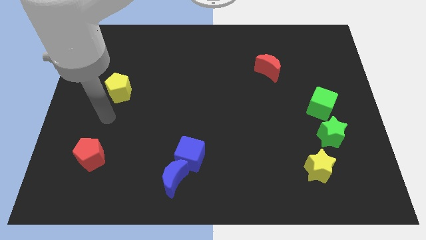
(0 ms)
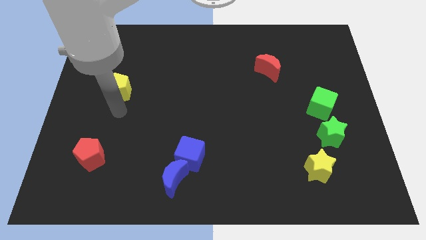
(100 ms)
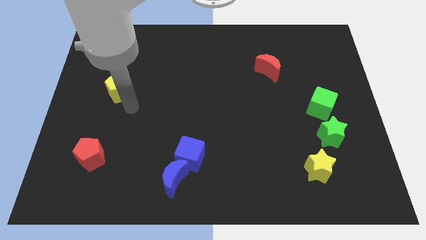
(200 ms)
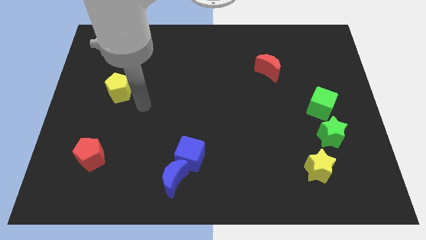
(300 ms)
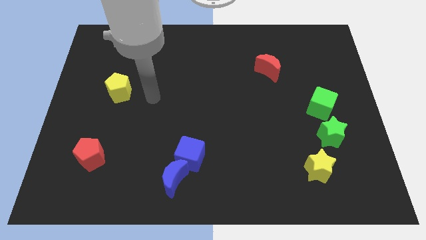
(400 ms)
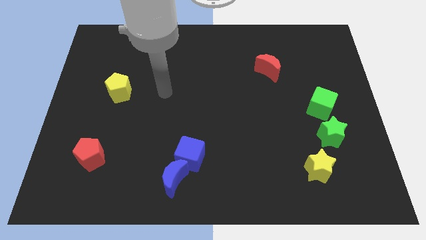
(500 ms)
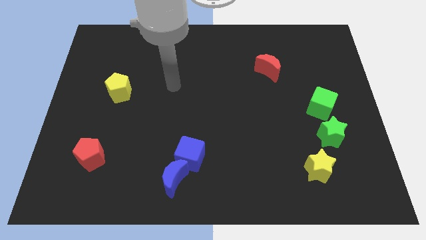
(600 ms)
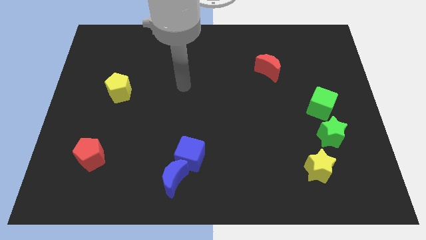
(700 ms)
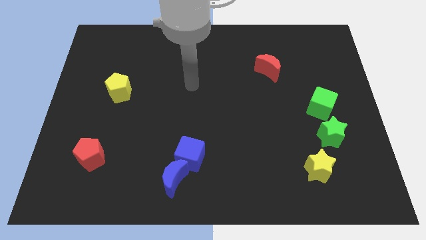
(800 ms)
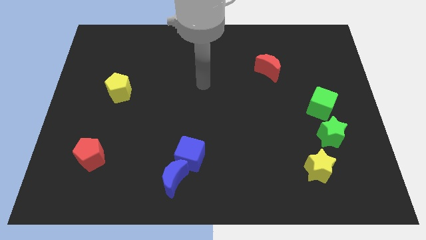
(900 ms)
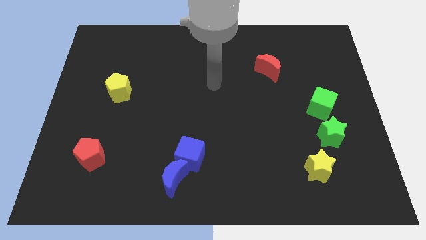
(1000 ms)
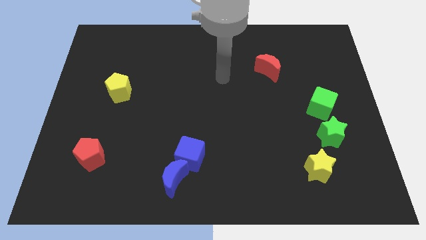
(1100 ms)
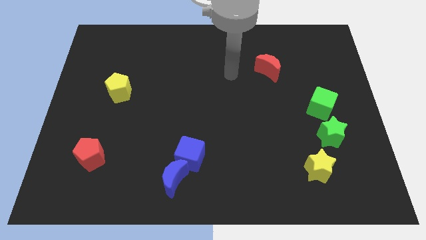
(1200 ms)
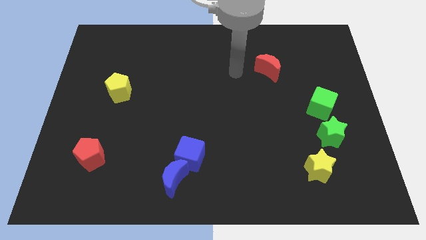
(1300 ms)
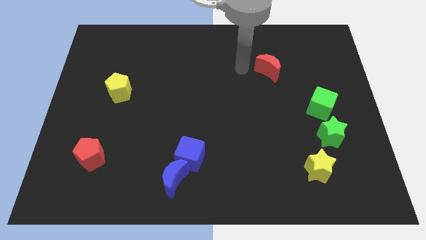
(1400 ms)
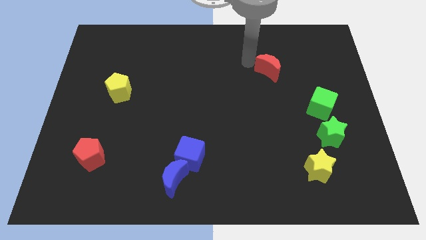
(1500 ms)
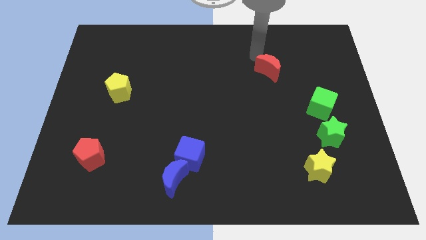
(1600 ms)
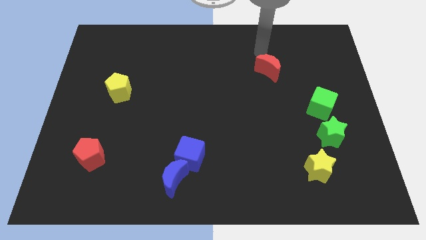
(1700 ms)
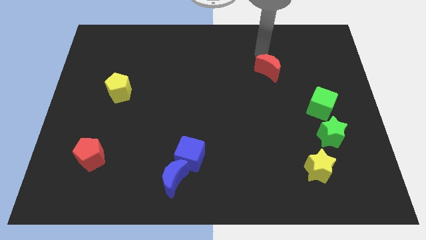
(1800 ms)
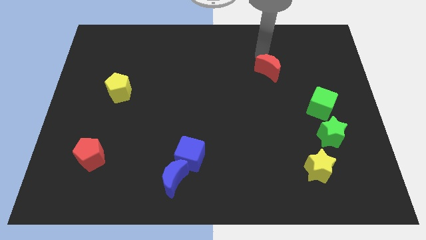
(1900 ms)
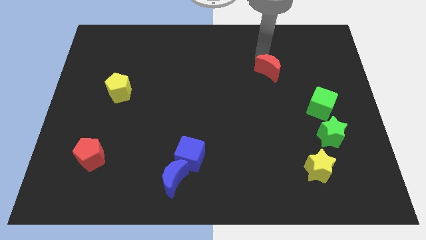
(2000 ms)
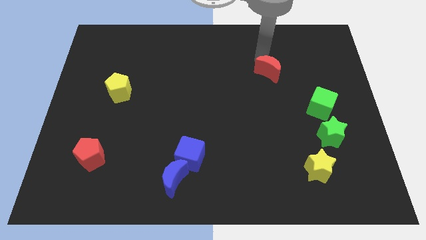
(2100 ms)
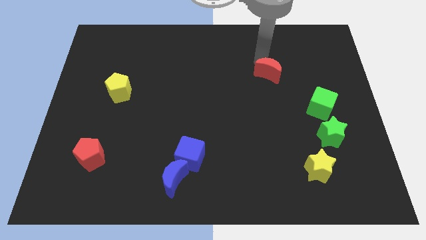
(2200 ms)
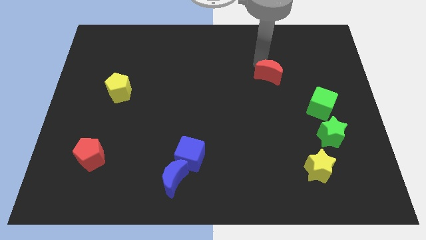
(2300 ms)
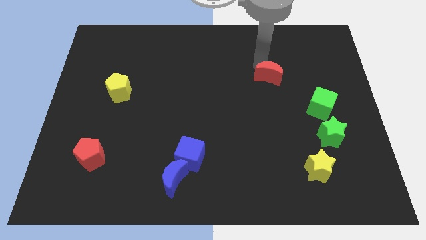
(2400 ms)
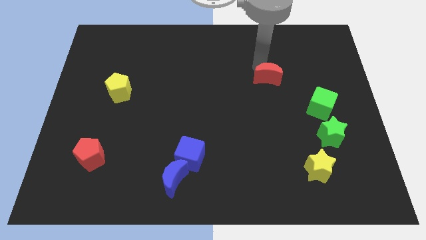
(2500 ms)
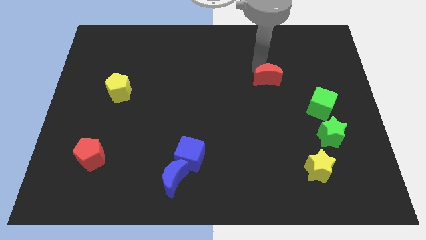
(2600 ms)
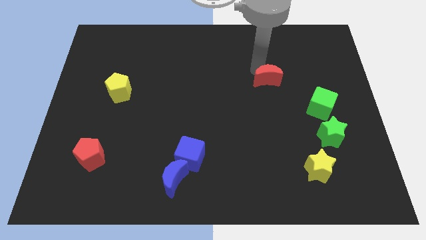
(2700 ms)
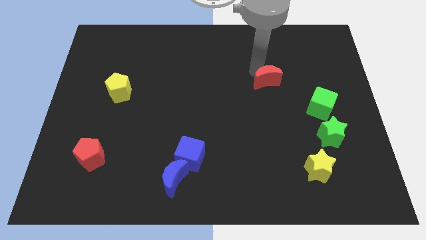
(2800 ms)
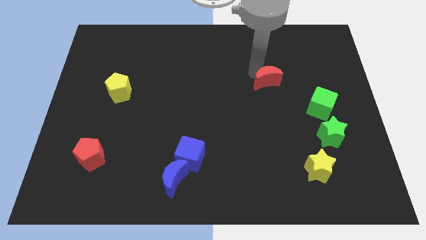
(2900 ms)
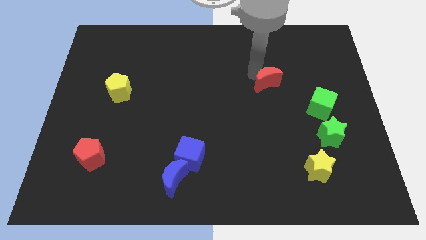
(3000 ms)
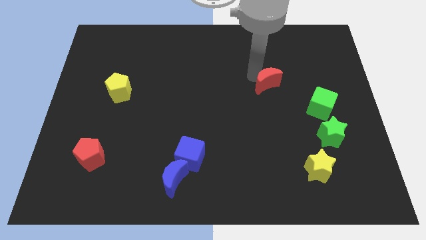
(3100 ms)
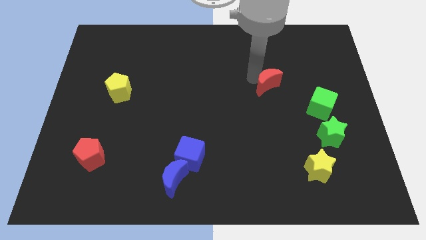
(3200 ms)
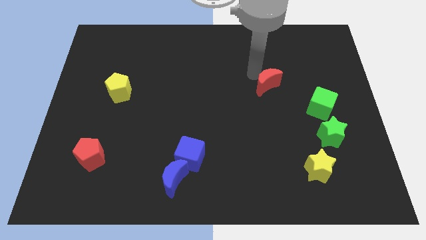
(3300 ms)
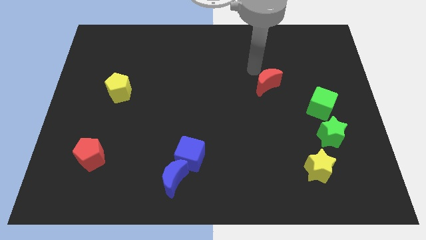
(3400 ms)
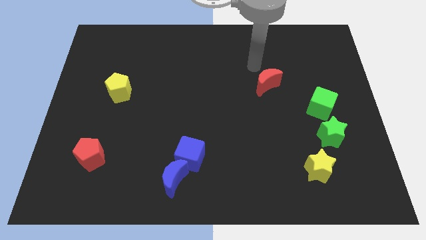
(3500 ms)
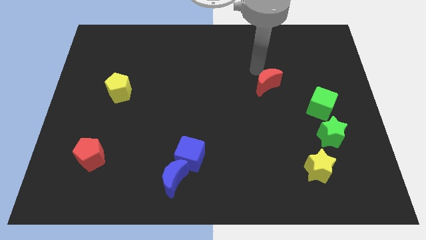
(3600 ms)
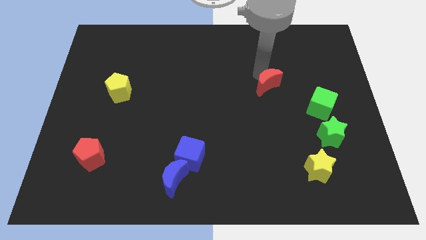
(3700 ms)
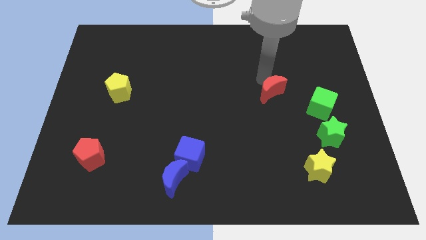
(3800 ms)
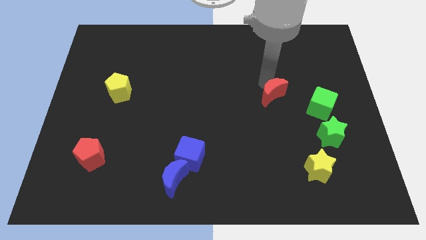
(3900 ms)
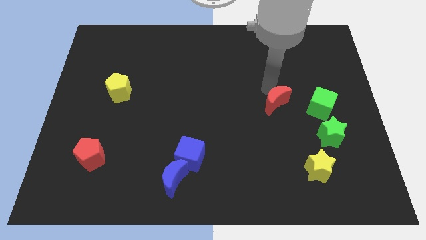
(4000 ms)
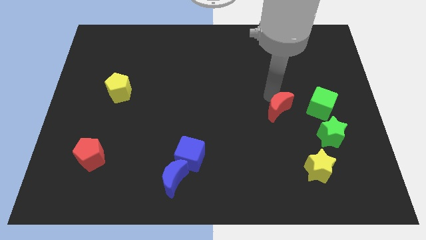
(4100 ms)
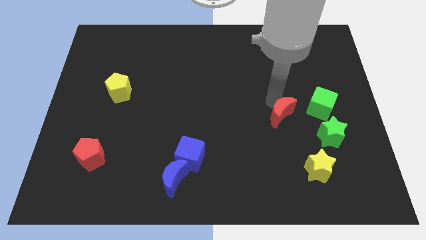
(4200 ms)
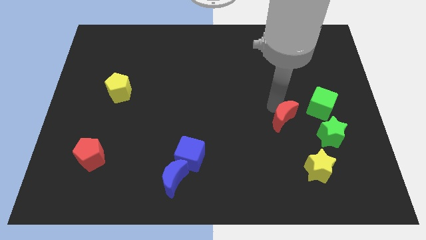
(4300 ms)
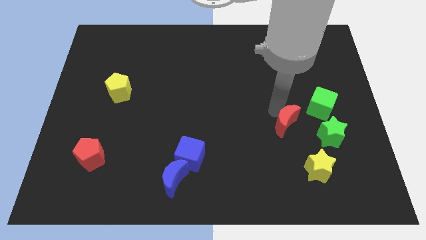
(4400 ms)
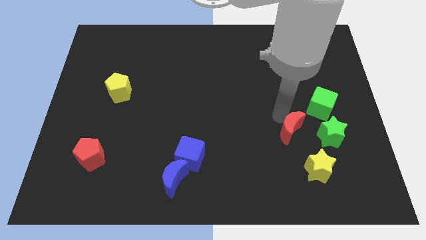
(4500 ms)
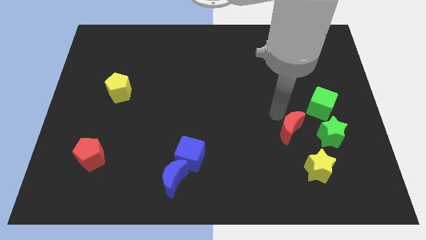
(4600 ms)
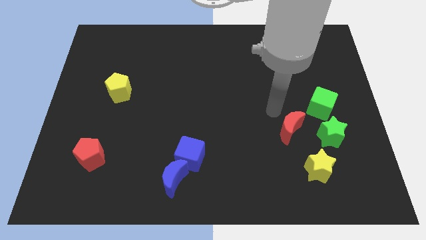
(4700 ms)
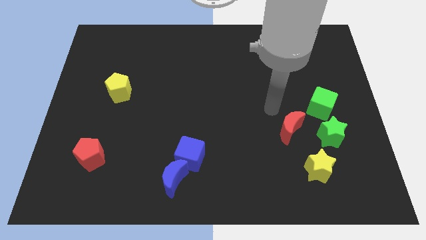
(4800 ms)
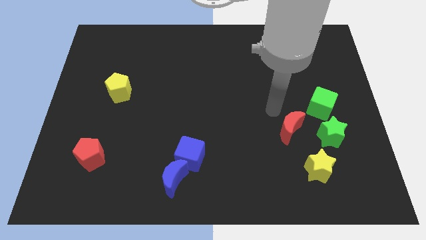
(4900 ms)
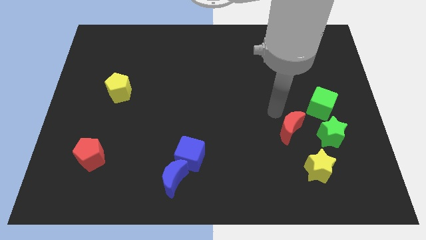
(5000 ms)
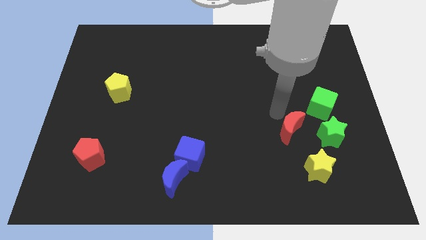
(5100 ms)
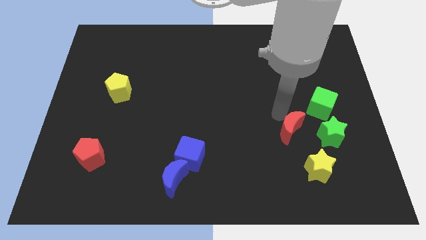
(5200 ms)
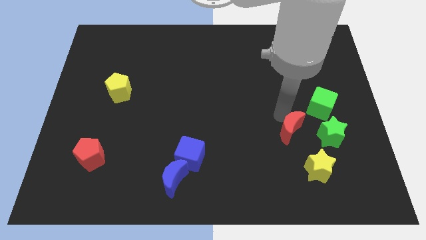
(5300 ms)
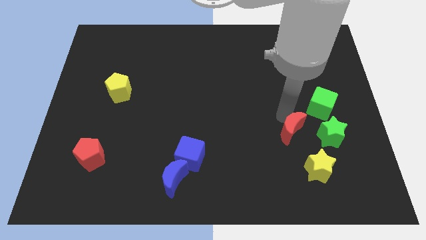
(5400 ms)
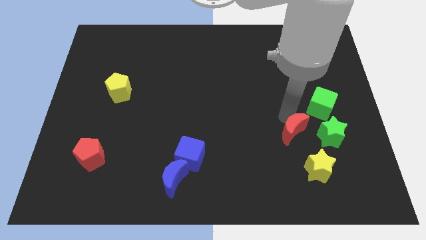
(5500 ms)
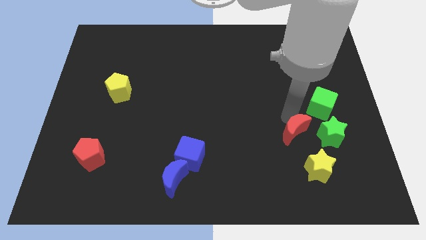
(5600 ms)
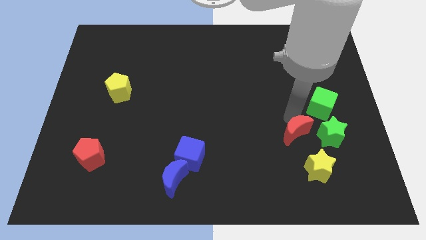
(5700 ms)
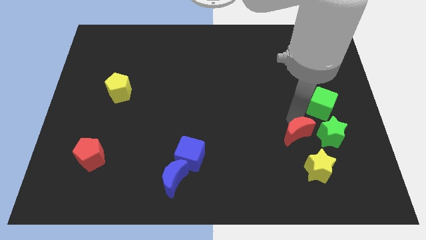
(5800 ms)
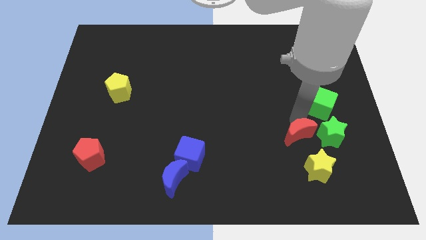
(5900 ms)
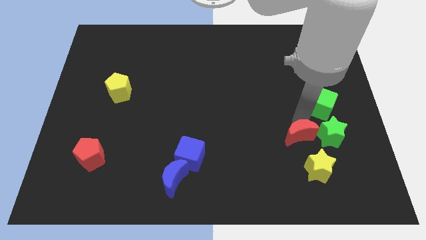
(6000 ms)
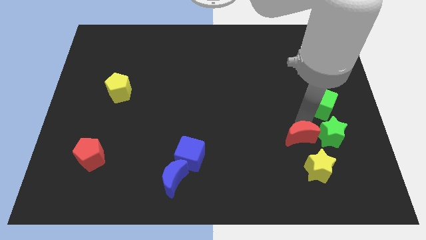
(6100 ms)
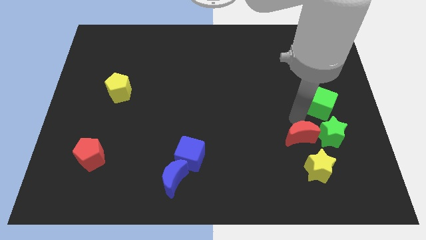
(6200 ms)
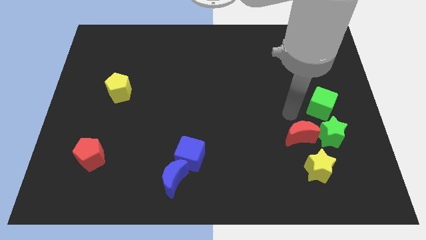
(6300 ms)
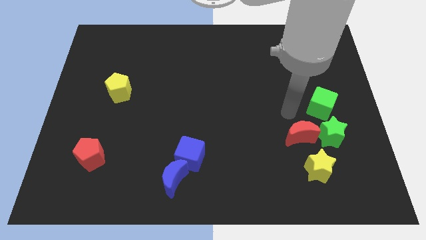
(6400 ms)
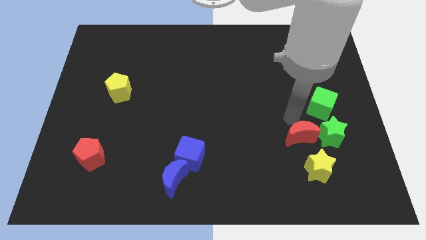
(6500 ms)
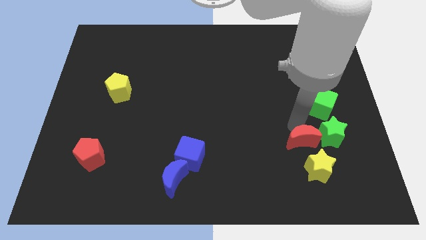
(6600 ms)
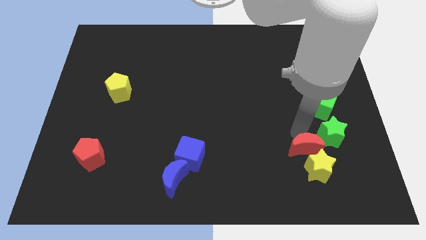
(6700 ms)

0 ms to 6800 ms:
put the red moon close to the yellow star
